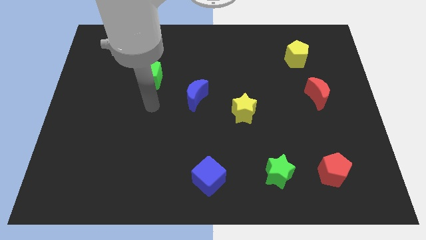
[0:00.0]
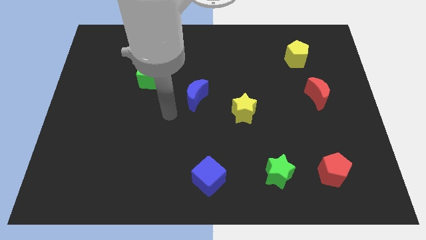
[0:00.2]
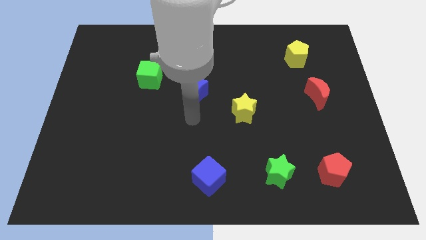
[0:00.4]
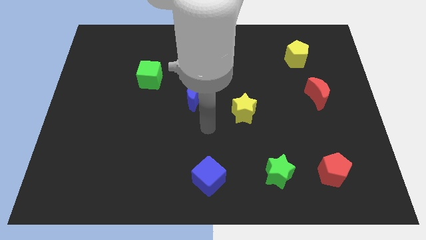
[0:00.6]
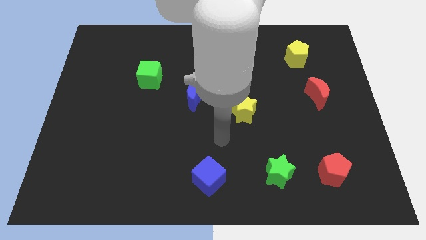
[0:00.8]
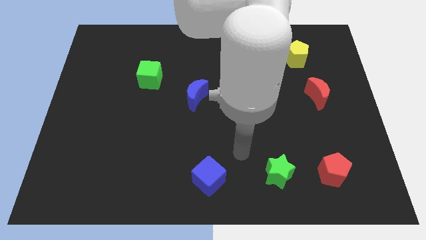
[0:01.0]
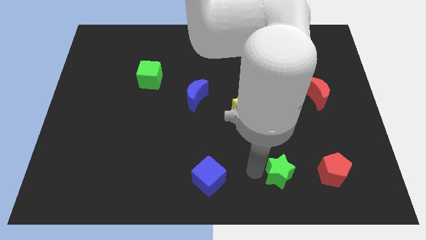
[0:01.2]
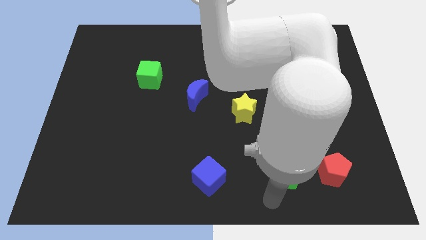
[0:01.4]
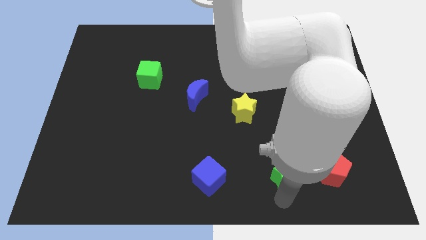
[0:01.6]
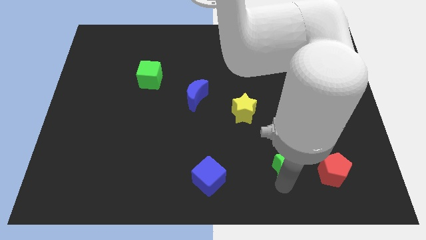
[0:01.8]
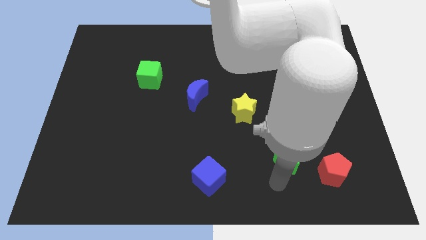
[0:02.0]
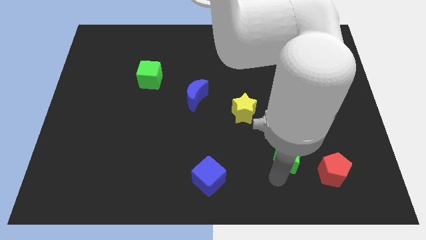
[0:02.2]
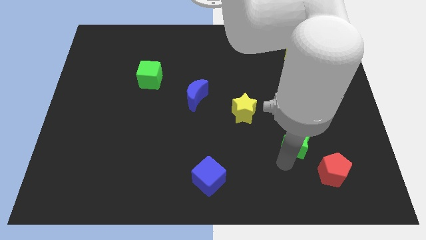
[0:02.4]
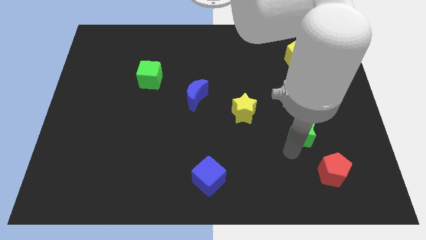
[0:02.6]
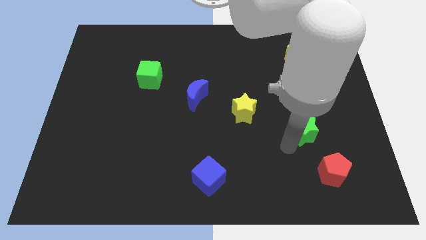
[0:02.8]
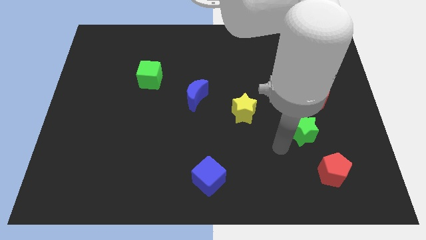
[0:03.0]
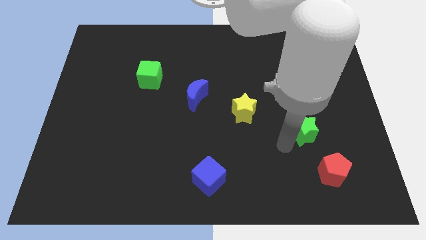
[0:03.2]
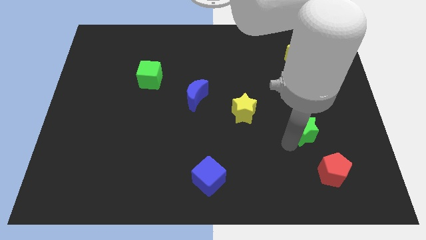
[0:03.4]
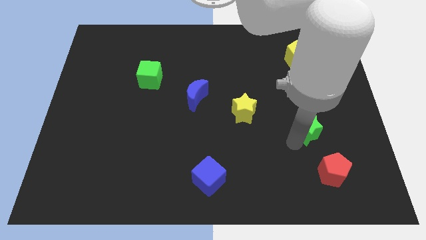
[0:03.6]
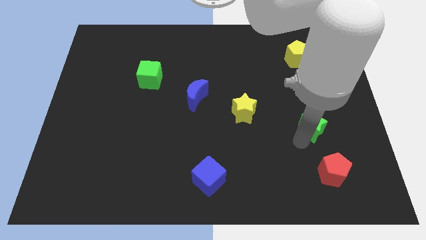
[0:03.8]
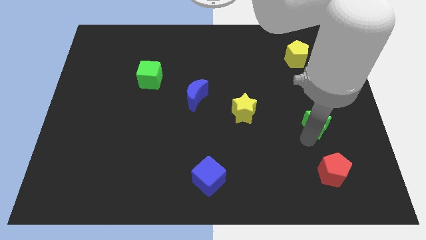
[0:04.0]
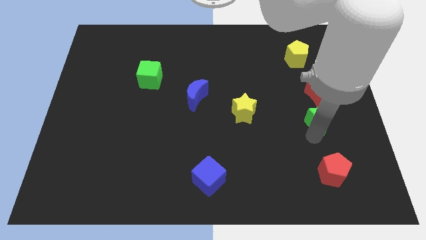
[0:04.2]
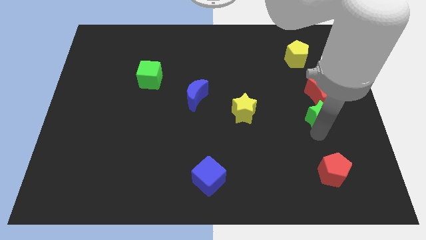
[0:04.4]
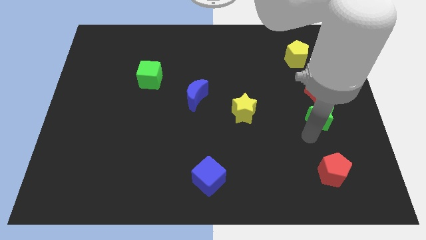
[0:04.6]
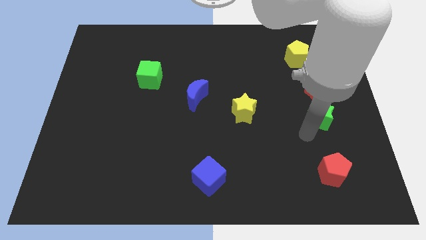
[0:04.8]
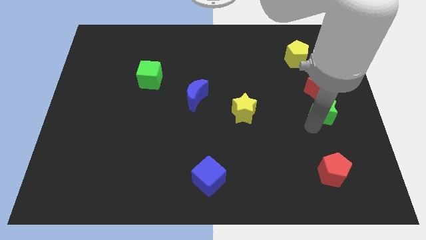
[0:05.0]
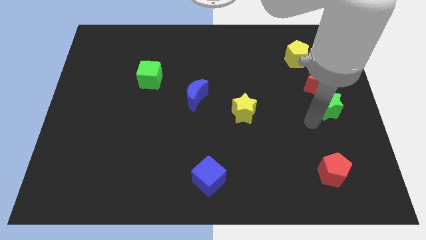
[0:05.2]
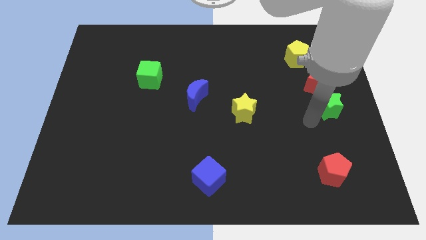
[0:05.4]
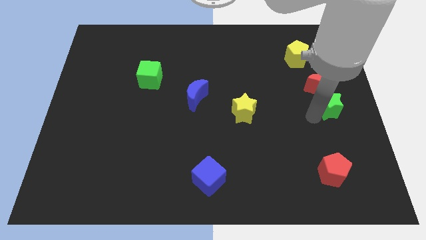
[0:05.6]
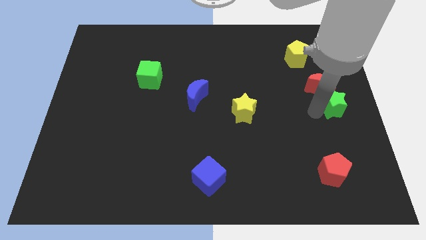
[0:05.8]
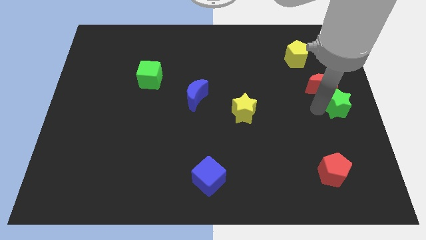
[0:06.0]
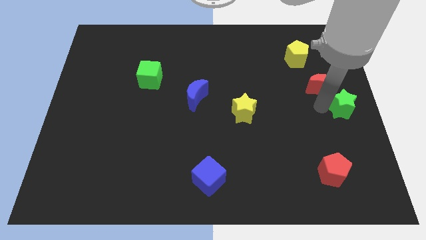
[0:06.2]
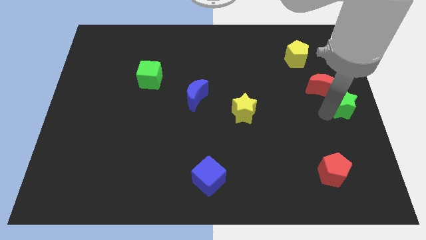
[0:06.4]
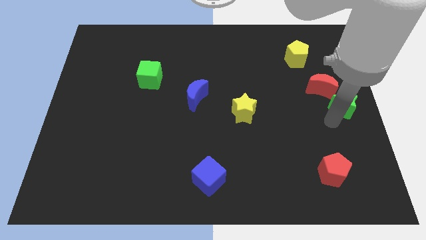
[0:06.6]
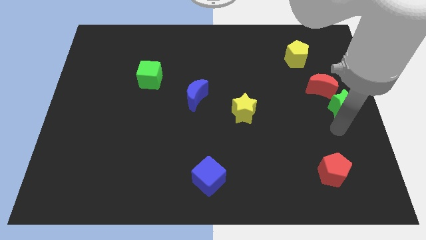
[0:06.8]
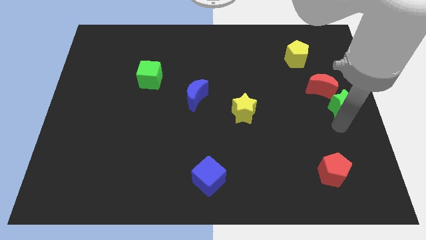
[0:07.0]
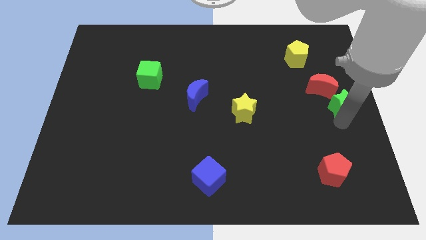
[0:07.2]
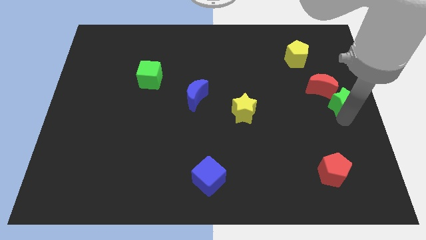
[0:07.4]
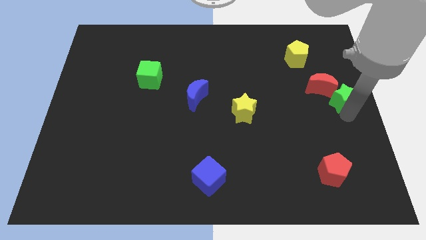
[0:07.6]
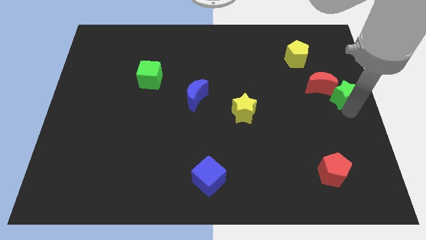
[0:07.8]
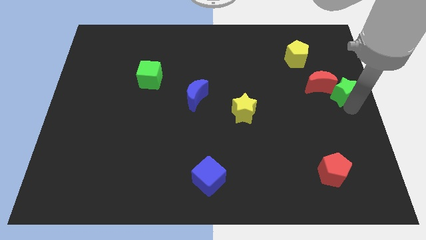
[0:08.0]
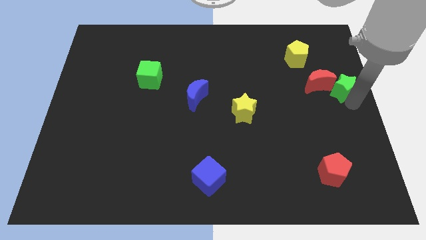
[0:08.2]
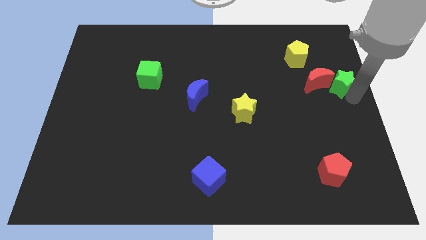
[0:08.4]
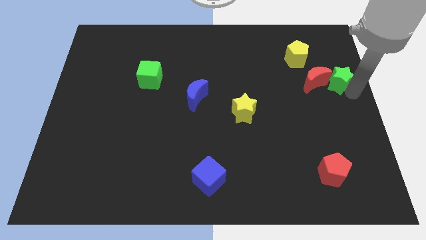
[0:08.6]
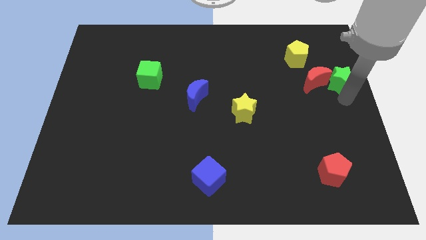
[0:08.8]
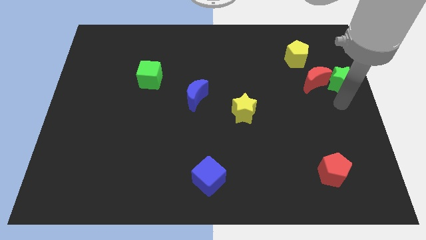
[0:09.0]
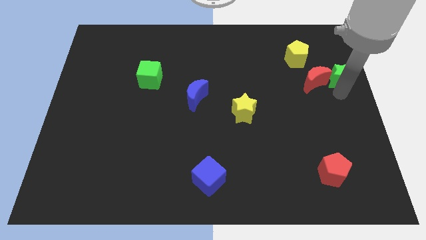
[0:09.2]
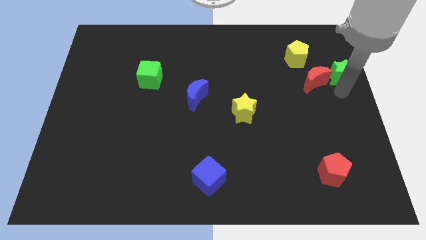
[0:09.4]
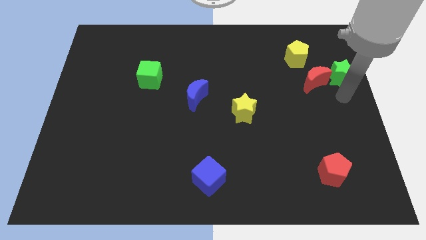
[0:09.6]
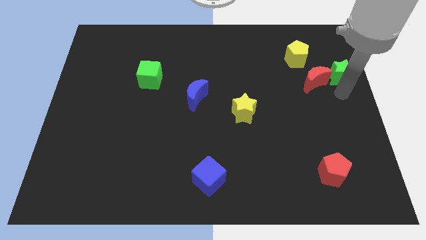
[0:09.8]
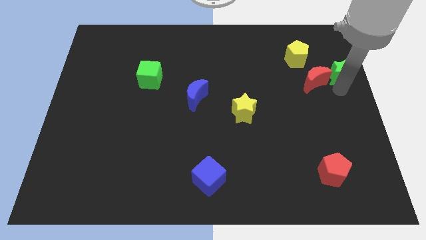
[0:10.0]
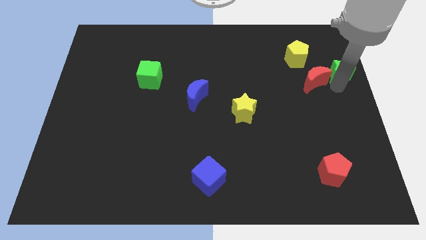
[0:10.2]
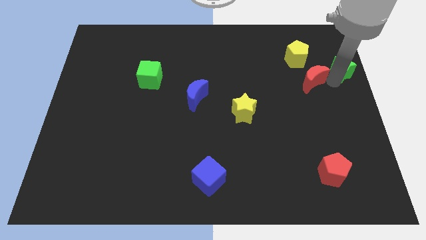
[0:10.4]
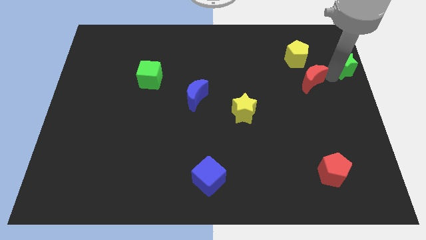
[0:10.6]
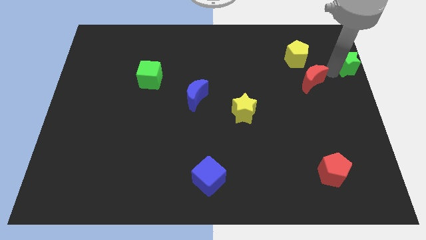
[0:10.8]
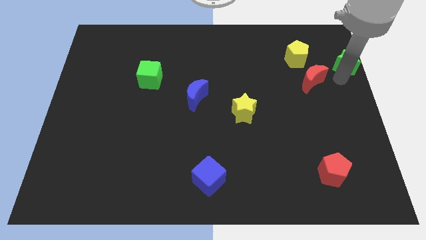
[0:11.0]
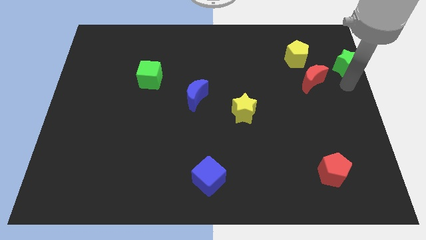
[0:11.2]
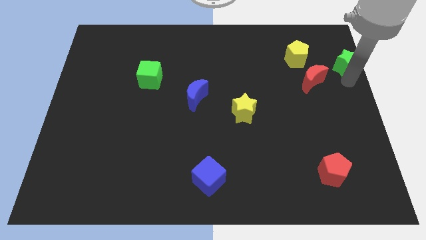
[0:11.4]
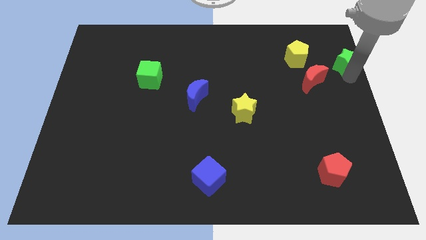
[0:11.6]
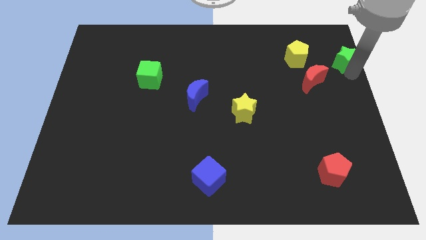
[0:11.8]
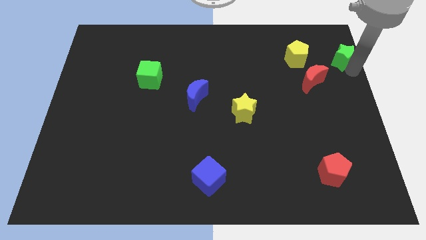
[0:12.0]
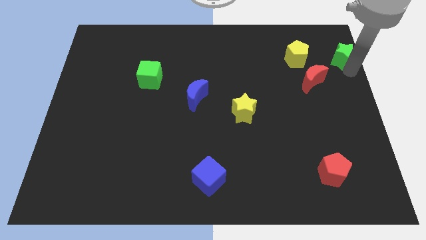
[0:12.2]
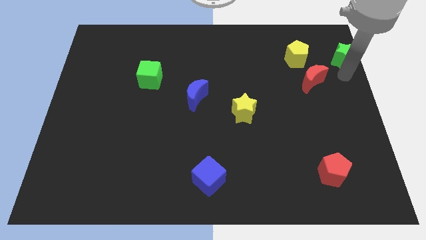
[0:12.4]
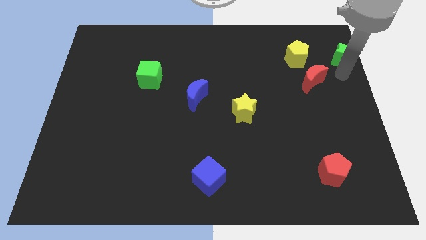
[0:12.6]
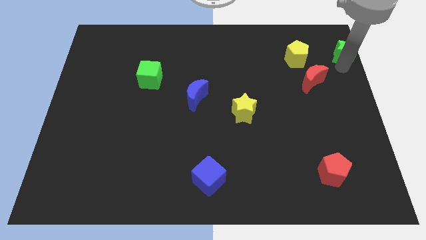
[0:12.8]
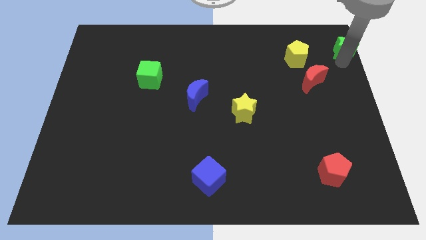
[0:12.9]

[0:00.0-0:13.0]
push the green star to the top right
